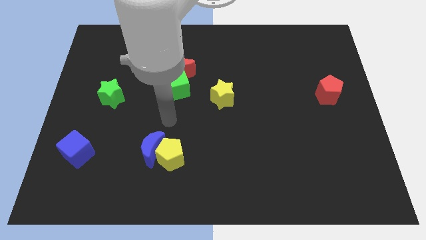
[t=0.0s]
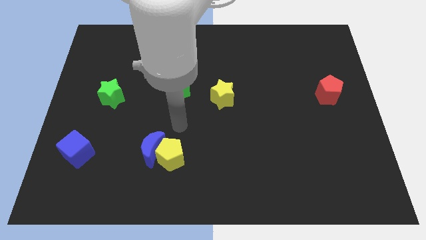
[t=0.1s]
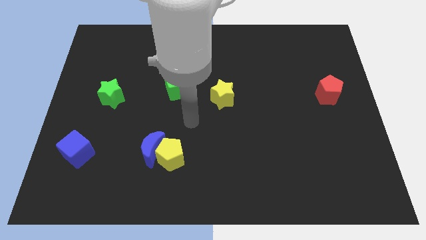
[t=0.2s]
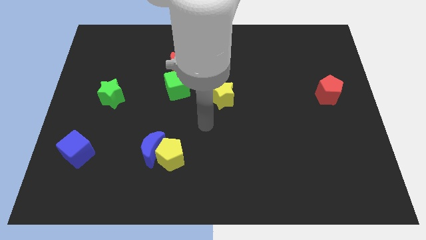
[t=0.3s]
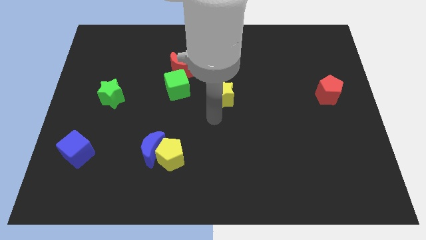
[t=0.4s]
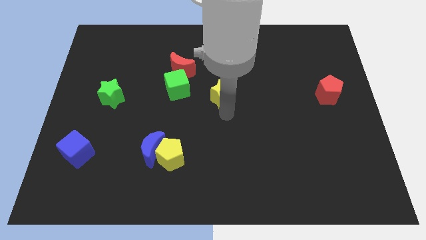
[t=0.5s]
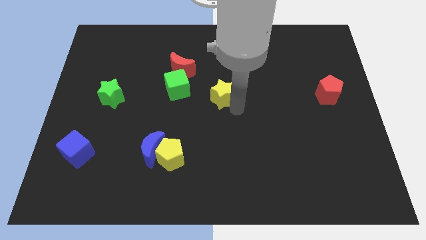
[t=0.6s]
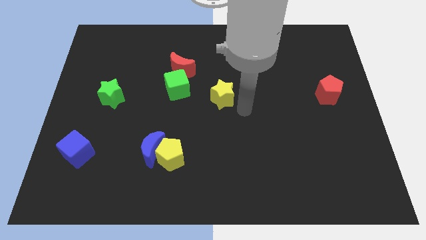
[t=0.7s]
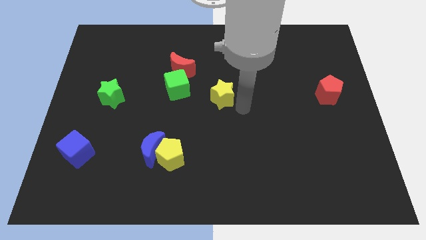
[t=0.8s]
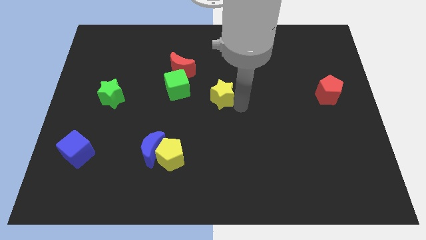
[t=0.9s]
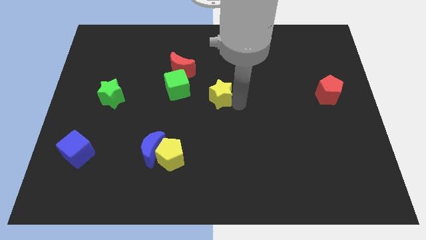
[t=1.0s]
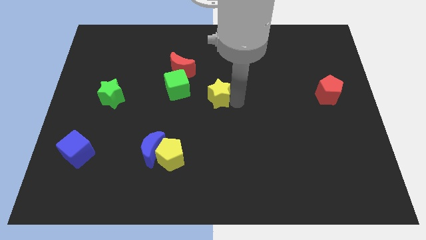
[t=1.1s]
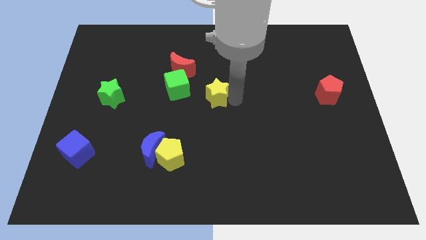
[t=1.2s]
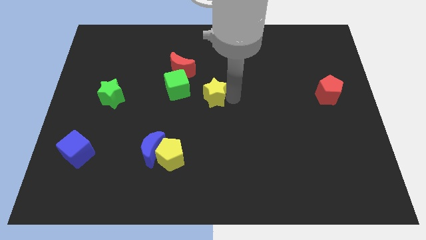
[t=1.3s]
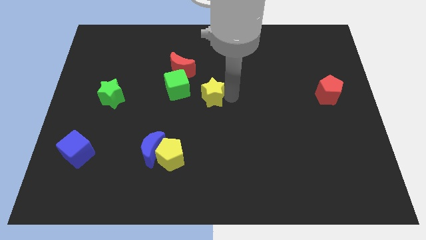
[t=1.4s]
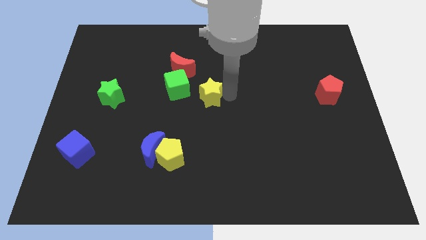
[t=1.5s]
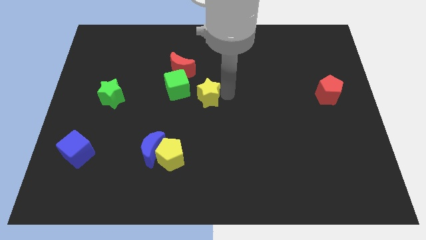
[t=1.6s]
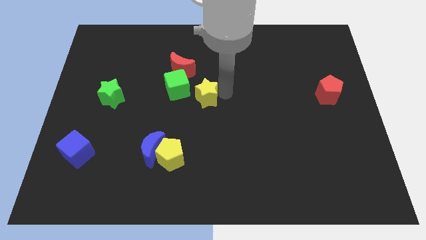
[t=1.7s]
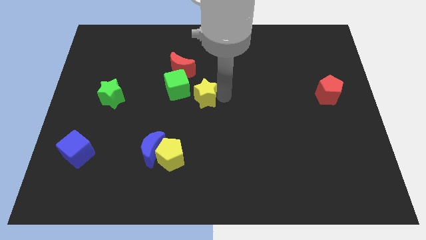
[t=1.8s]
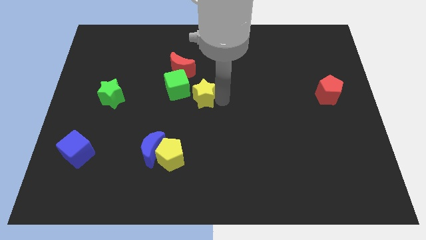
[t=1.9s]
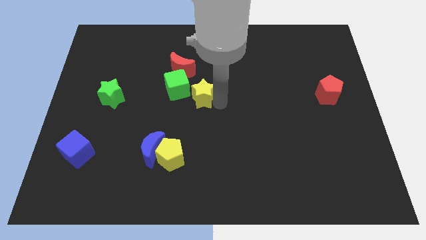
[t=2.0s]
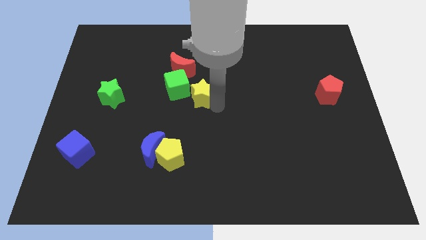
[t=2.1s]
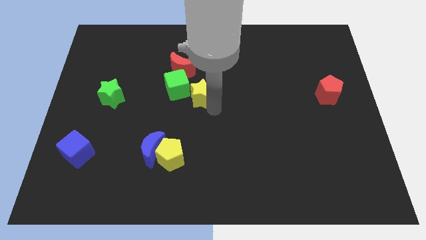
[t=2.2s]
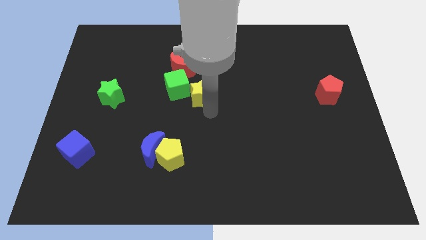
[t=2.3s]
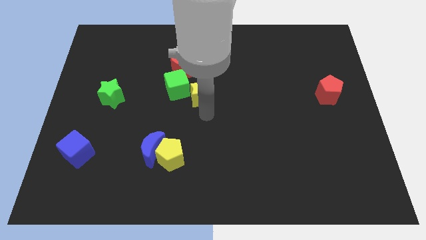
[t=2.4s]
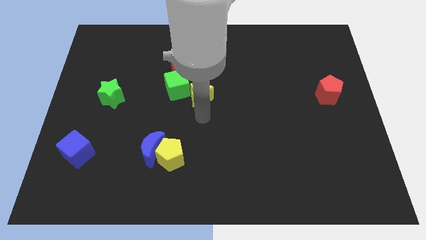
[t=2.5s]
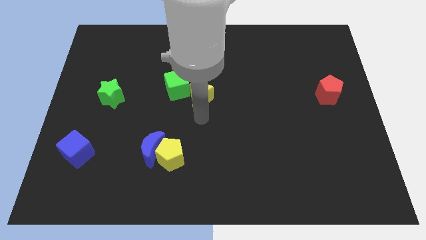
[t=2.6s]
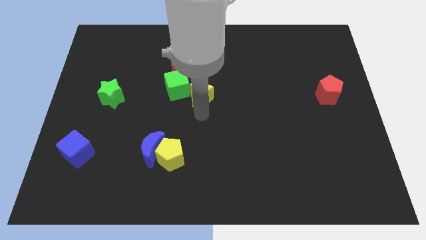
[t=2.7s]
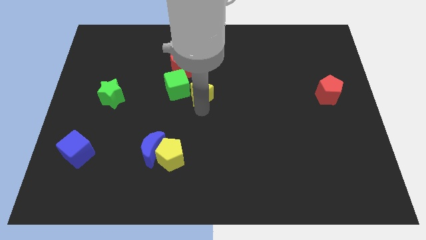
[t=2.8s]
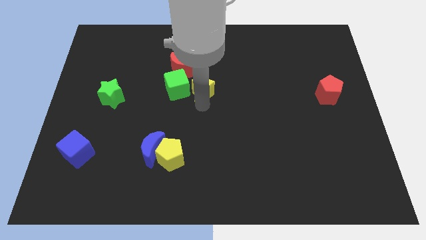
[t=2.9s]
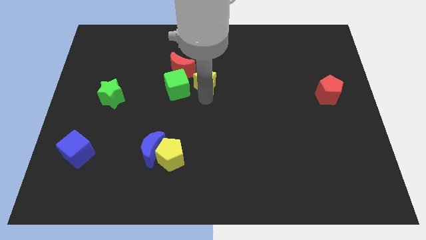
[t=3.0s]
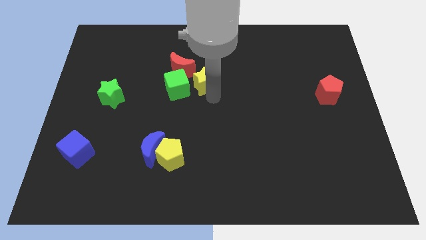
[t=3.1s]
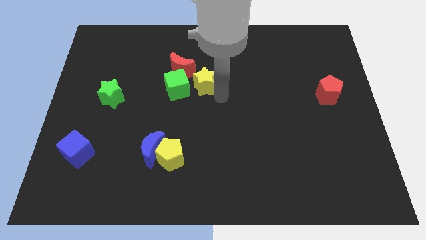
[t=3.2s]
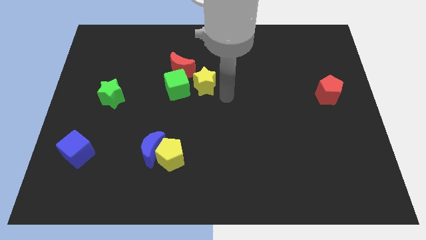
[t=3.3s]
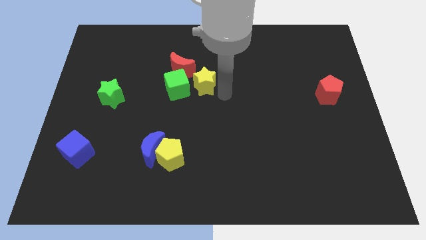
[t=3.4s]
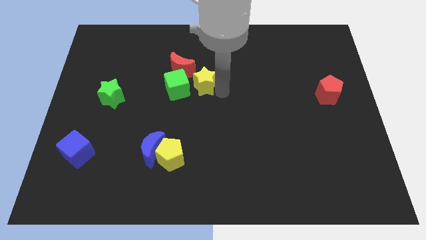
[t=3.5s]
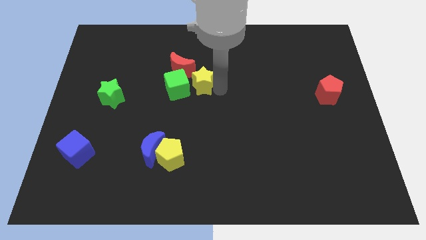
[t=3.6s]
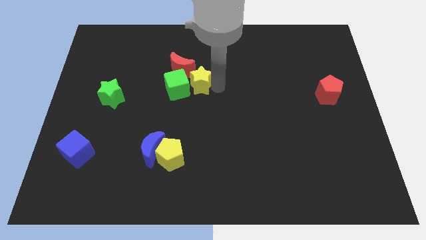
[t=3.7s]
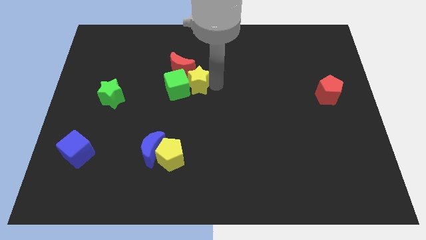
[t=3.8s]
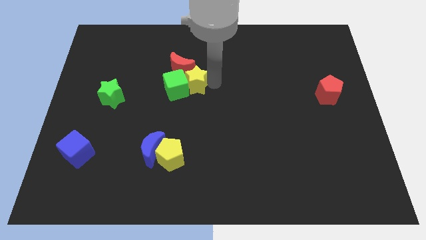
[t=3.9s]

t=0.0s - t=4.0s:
slide the yellow star towards the red moon

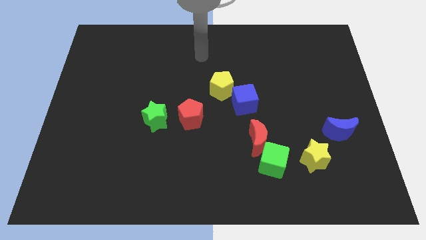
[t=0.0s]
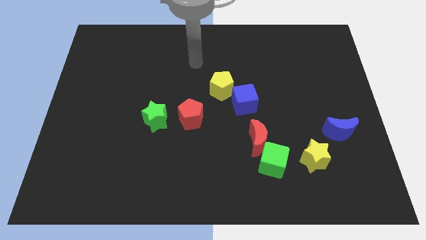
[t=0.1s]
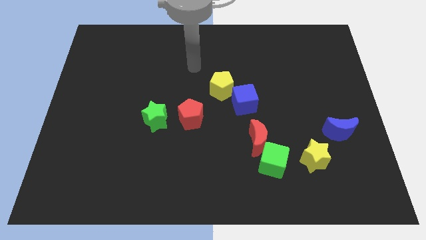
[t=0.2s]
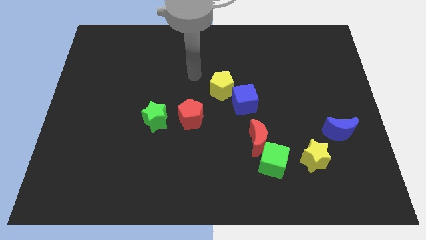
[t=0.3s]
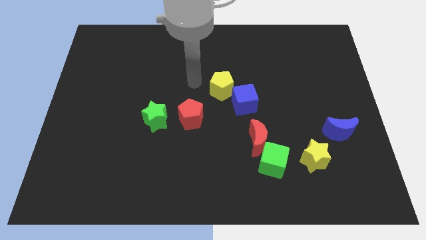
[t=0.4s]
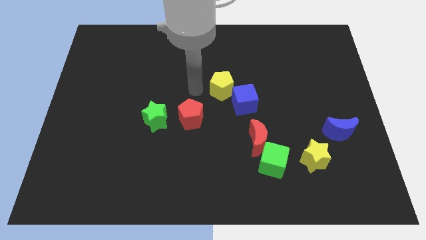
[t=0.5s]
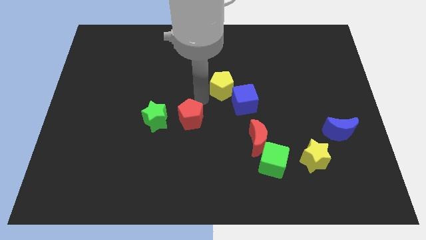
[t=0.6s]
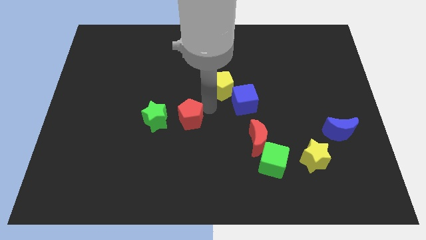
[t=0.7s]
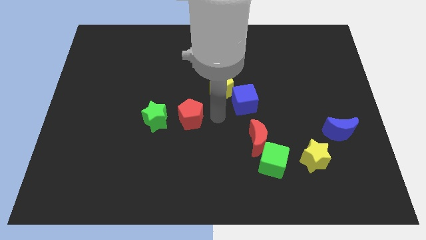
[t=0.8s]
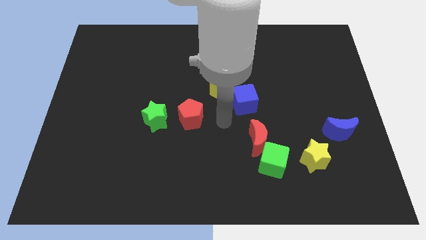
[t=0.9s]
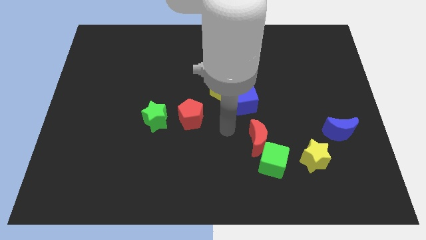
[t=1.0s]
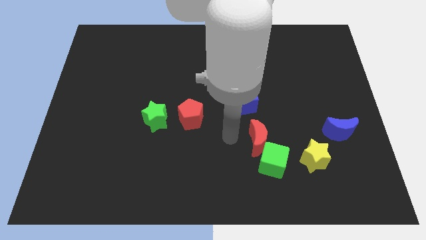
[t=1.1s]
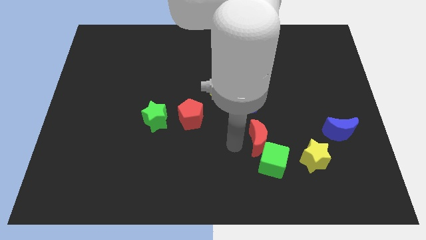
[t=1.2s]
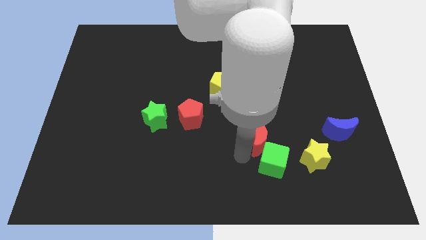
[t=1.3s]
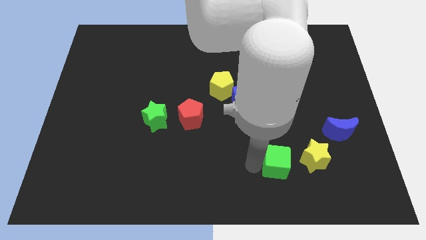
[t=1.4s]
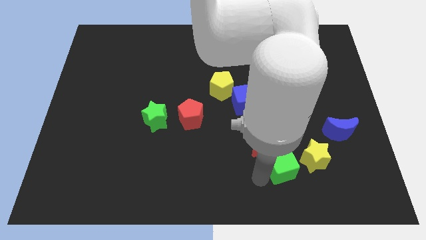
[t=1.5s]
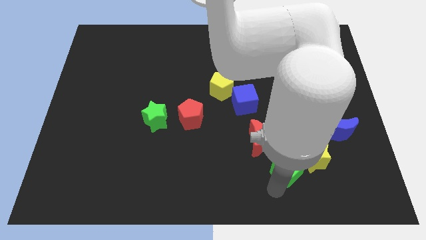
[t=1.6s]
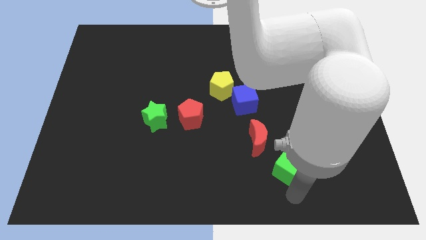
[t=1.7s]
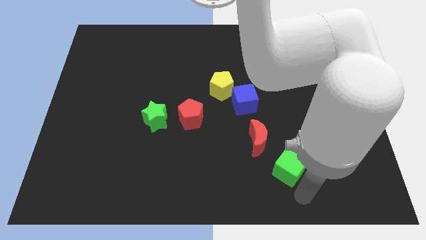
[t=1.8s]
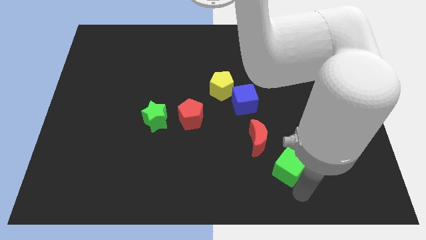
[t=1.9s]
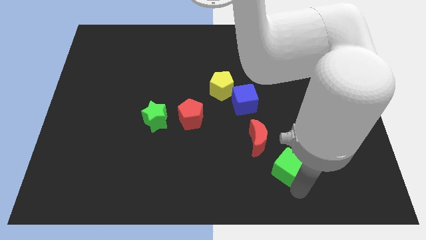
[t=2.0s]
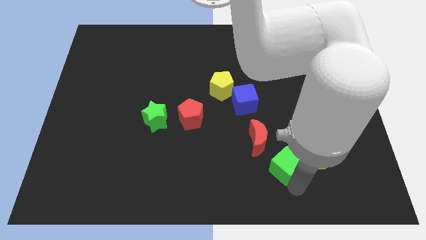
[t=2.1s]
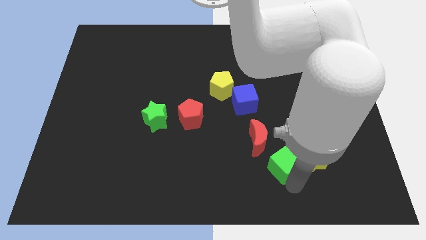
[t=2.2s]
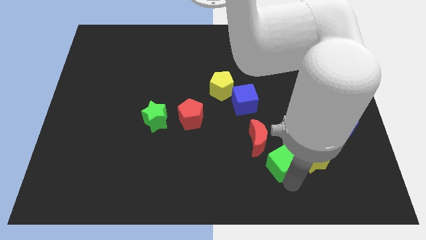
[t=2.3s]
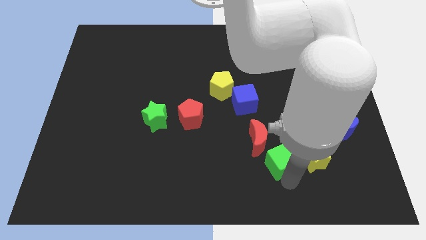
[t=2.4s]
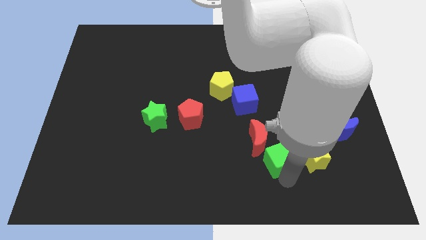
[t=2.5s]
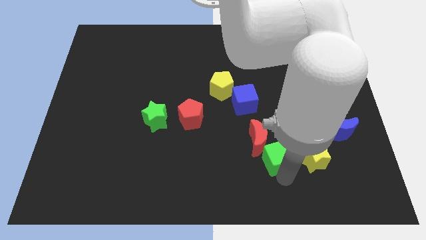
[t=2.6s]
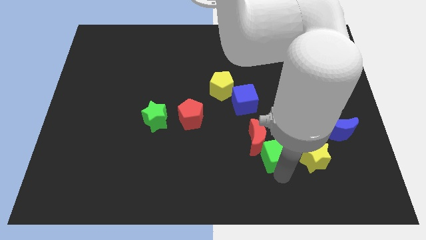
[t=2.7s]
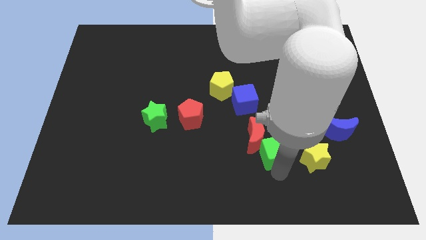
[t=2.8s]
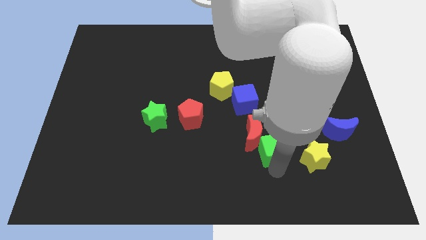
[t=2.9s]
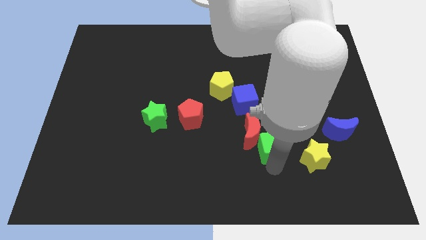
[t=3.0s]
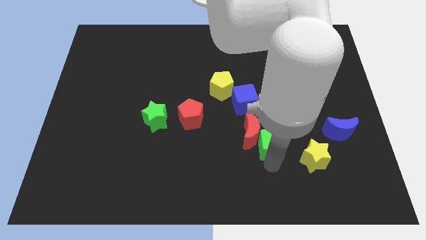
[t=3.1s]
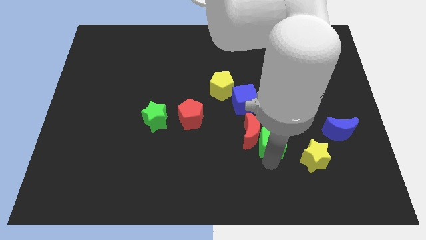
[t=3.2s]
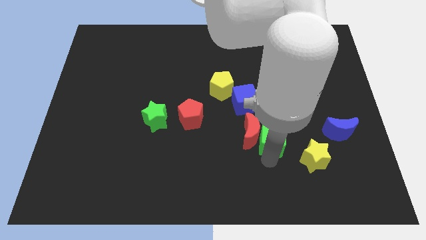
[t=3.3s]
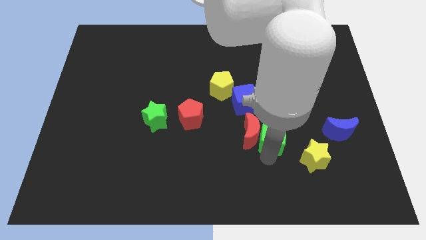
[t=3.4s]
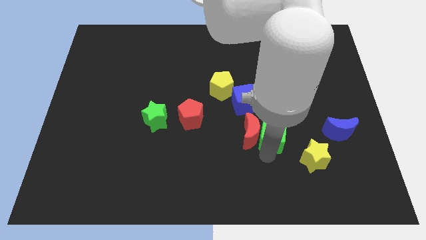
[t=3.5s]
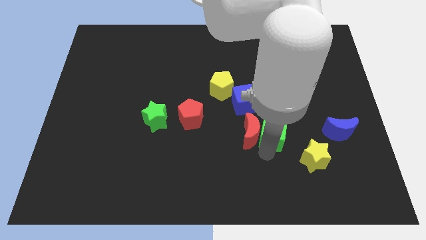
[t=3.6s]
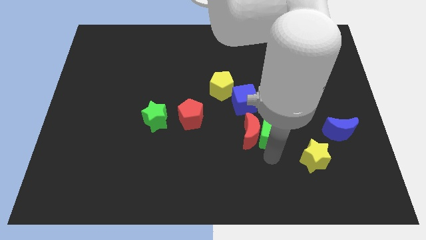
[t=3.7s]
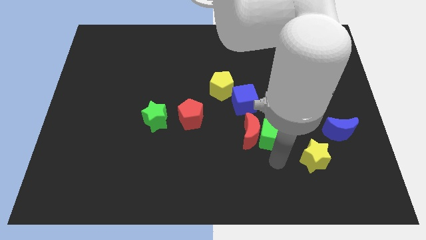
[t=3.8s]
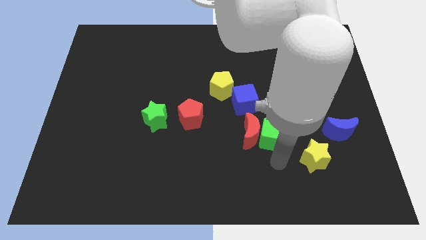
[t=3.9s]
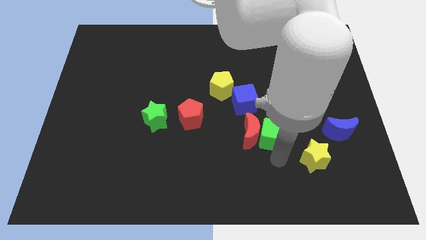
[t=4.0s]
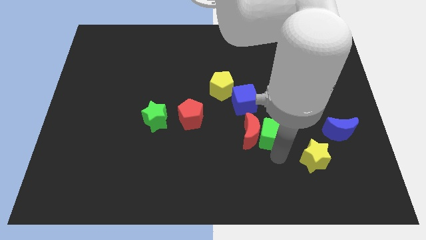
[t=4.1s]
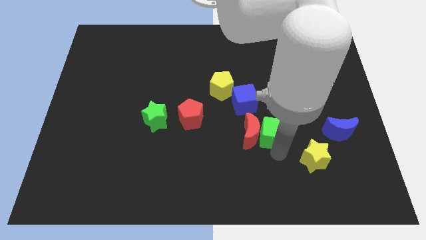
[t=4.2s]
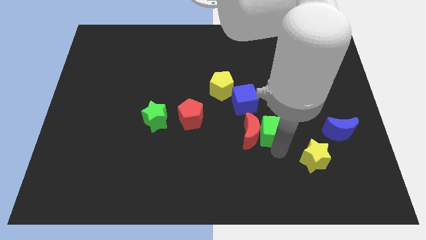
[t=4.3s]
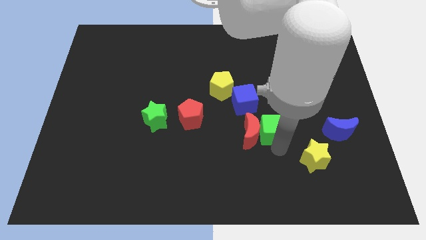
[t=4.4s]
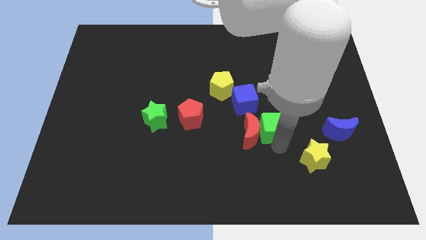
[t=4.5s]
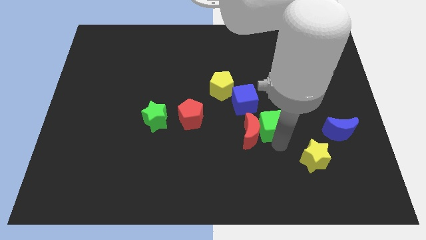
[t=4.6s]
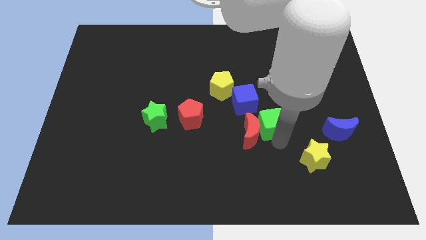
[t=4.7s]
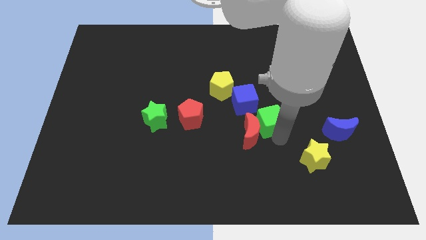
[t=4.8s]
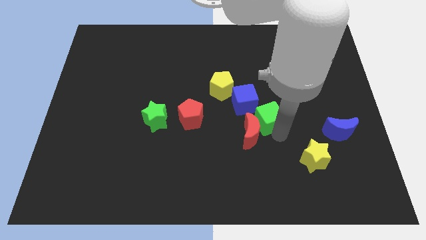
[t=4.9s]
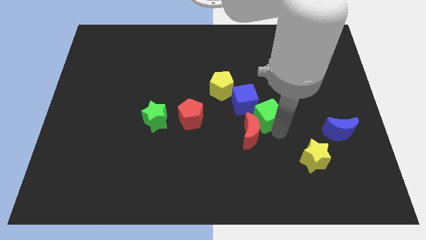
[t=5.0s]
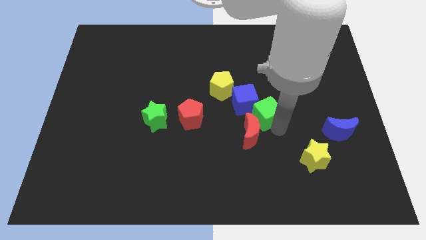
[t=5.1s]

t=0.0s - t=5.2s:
push the green cube to the blue cube
